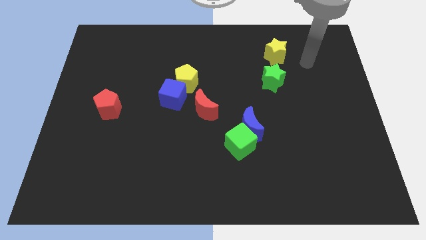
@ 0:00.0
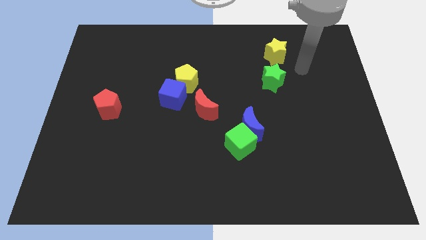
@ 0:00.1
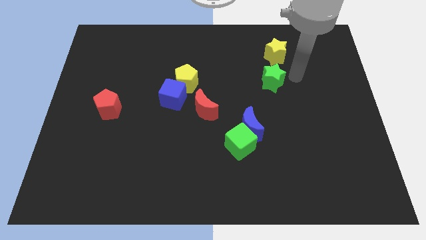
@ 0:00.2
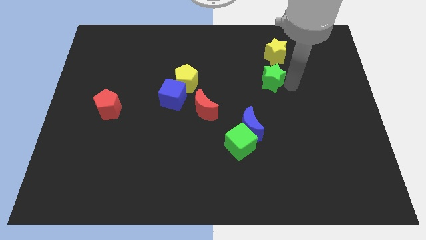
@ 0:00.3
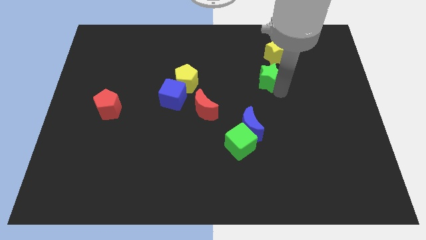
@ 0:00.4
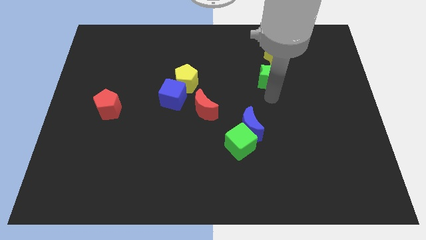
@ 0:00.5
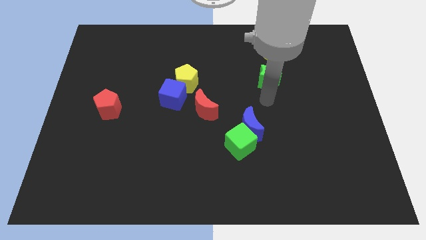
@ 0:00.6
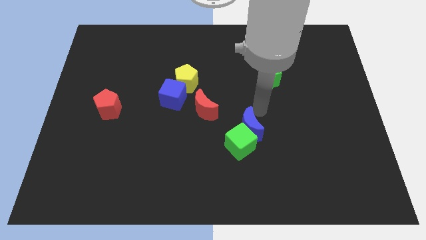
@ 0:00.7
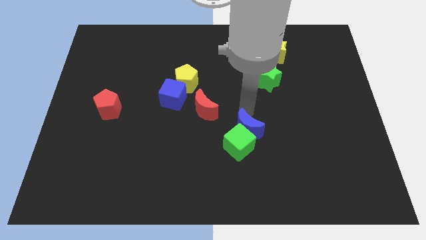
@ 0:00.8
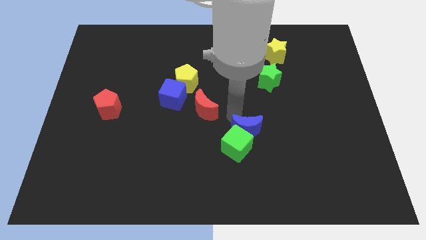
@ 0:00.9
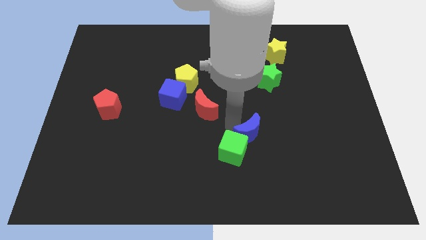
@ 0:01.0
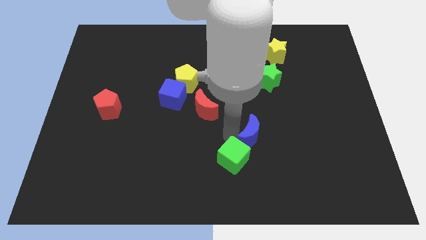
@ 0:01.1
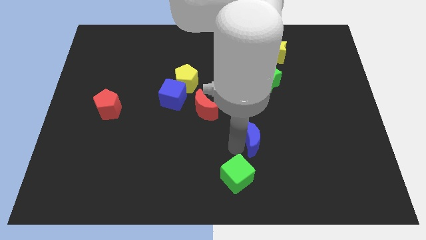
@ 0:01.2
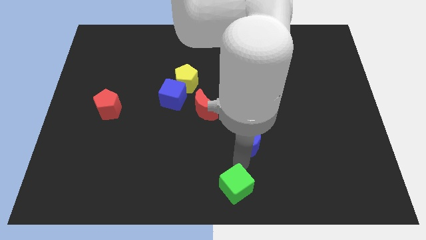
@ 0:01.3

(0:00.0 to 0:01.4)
move the blue moon away from the green cube

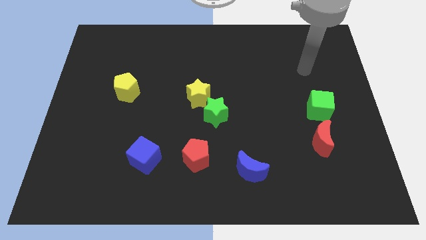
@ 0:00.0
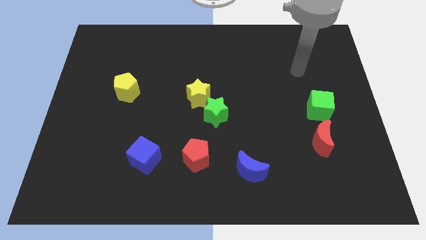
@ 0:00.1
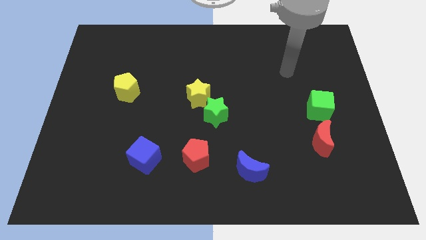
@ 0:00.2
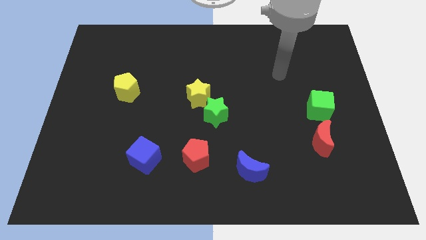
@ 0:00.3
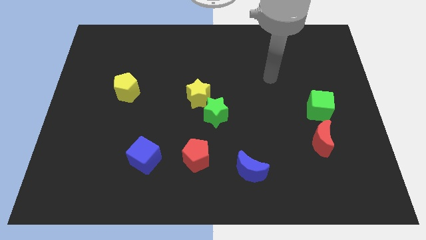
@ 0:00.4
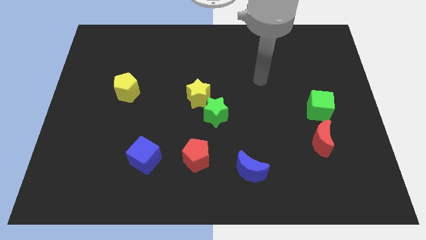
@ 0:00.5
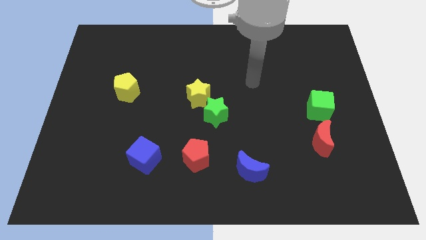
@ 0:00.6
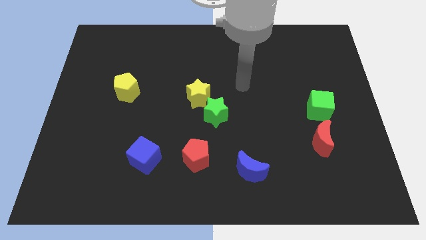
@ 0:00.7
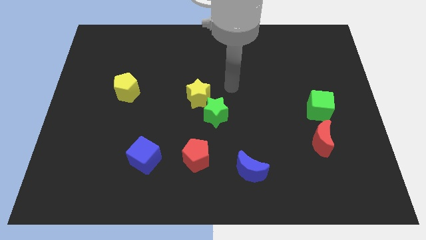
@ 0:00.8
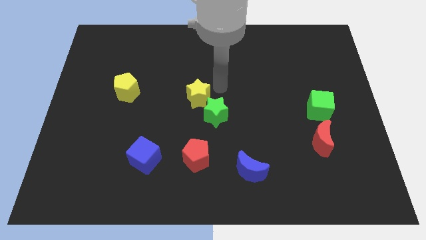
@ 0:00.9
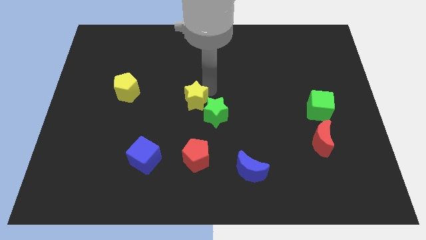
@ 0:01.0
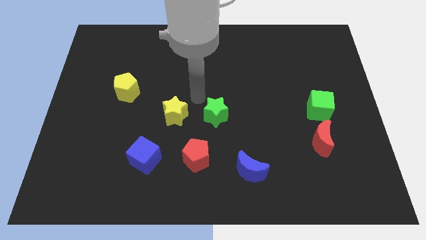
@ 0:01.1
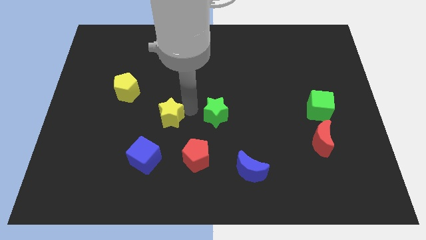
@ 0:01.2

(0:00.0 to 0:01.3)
move the green star away from the yellow star

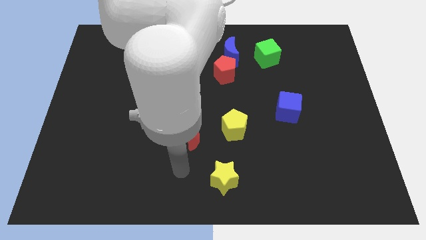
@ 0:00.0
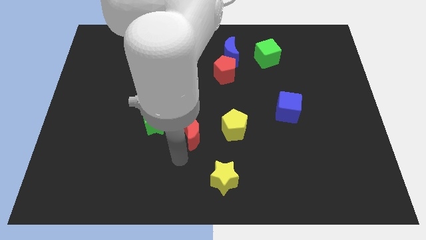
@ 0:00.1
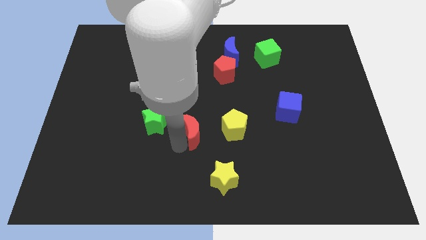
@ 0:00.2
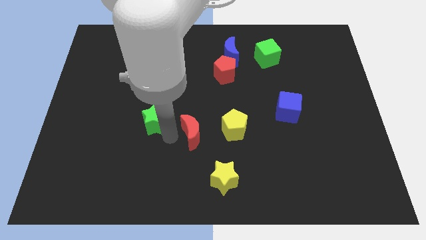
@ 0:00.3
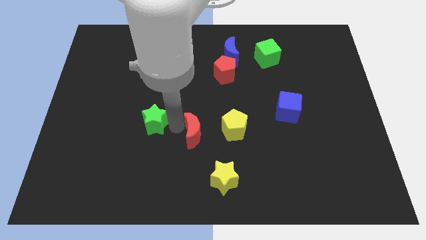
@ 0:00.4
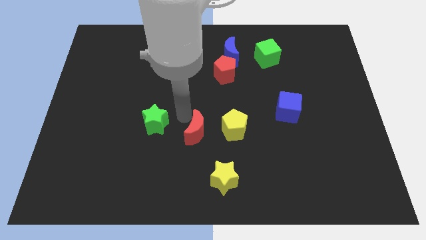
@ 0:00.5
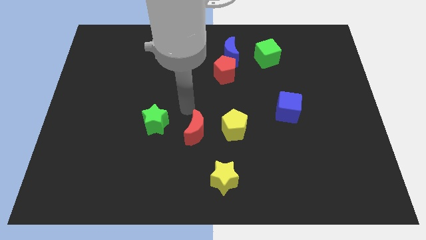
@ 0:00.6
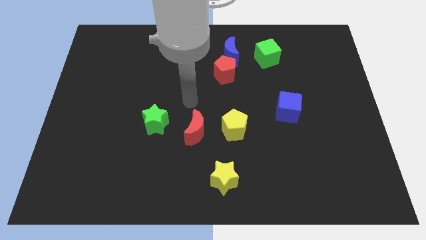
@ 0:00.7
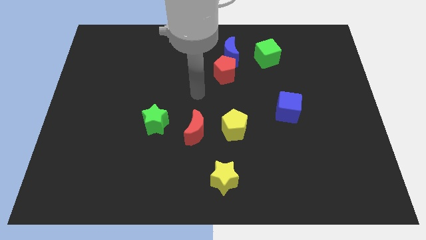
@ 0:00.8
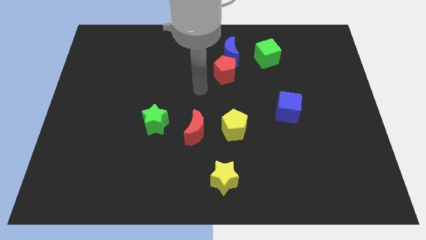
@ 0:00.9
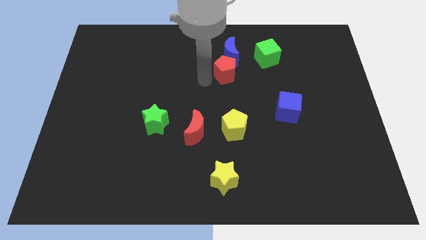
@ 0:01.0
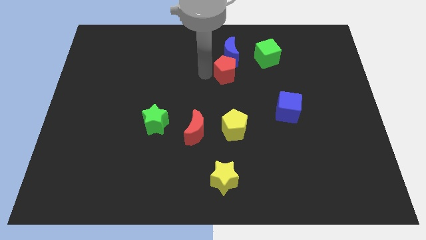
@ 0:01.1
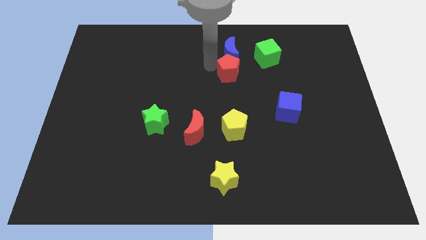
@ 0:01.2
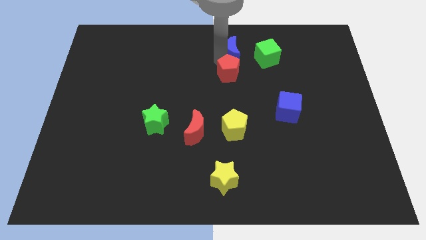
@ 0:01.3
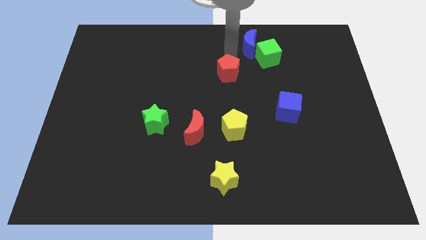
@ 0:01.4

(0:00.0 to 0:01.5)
separate the red pentagon from the blue moon

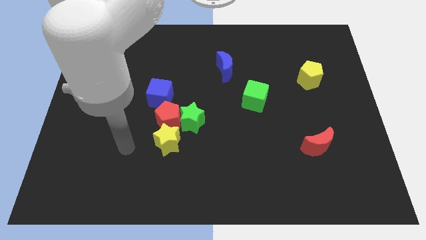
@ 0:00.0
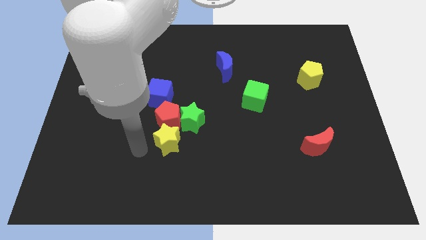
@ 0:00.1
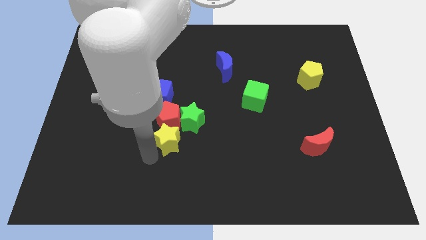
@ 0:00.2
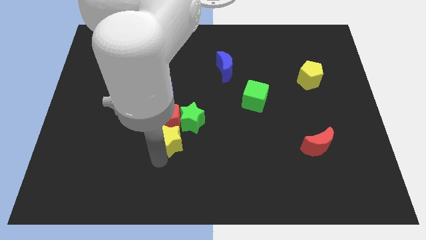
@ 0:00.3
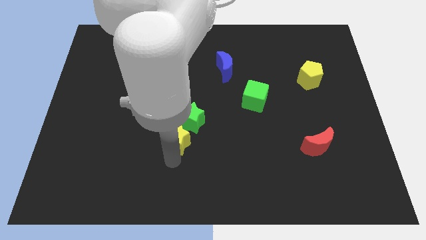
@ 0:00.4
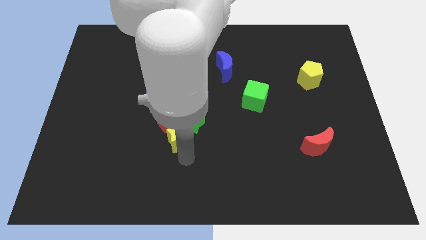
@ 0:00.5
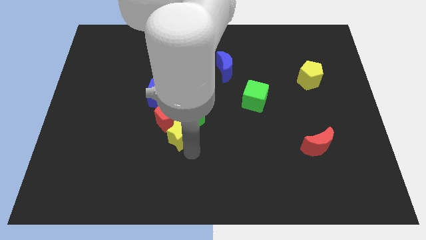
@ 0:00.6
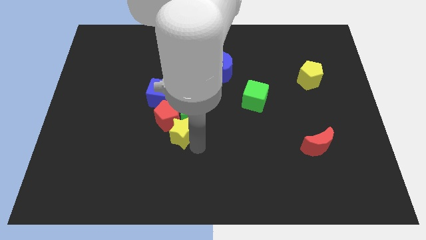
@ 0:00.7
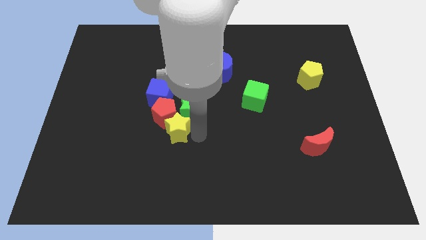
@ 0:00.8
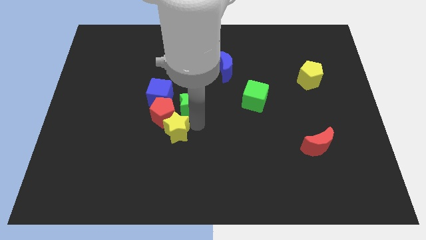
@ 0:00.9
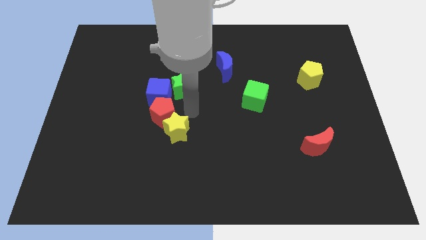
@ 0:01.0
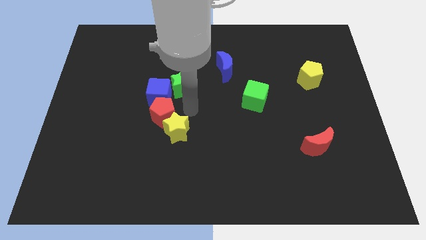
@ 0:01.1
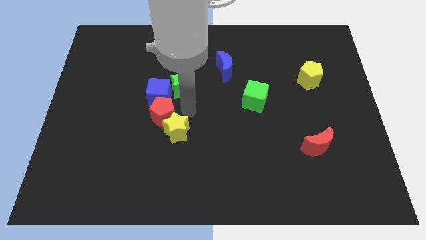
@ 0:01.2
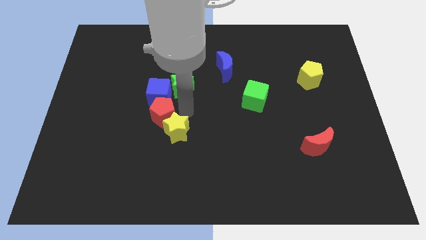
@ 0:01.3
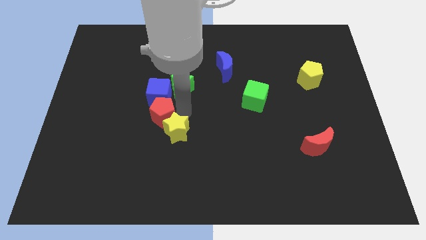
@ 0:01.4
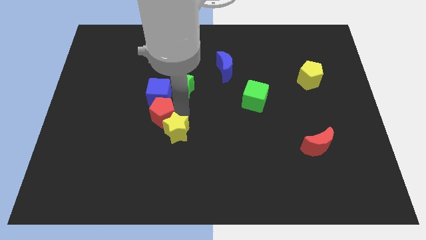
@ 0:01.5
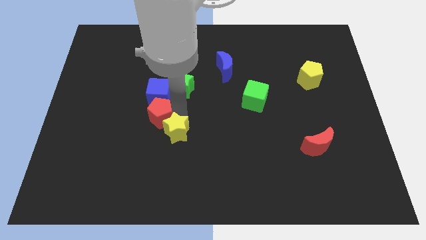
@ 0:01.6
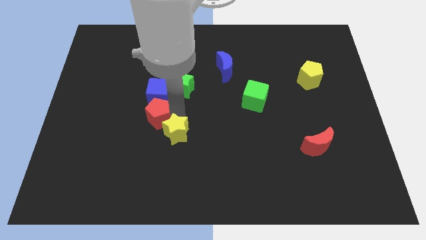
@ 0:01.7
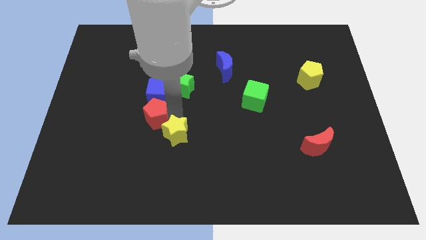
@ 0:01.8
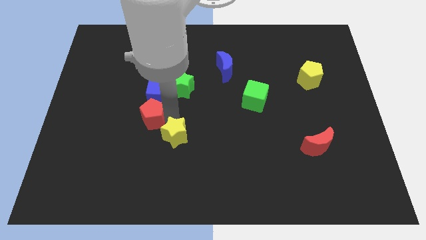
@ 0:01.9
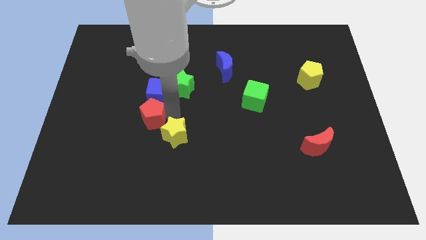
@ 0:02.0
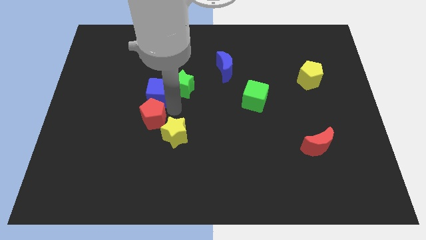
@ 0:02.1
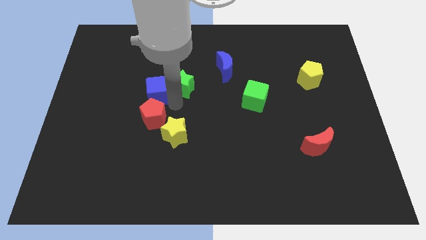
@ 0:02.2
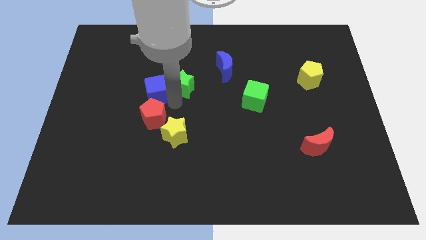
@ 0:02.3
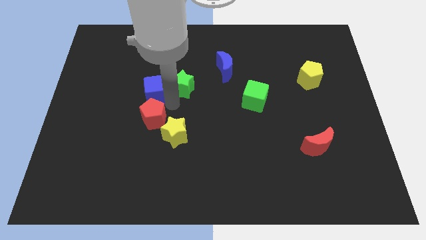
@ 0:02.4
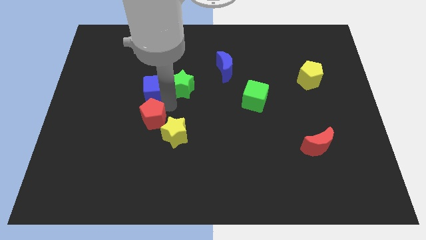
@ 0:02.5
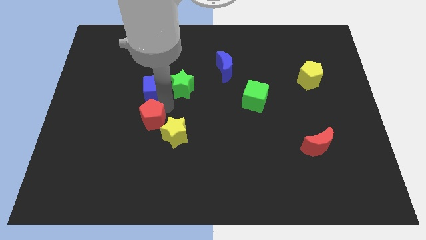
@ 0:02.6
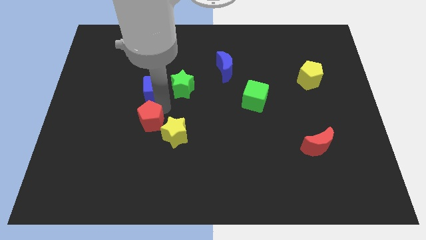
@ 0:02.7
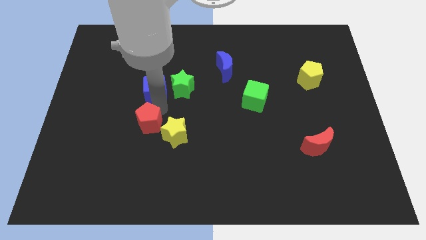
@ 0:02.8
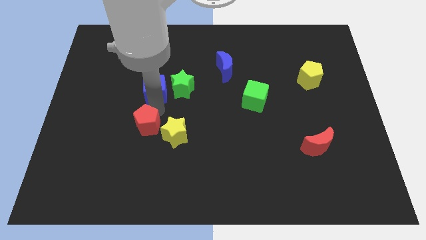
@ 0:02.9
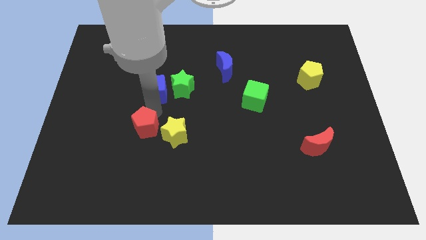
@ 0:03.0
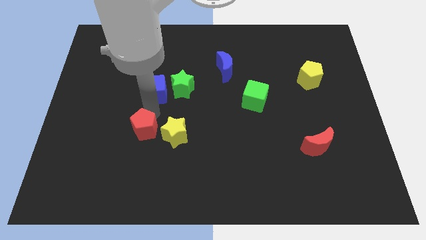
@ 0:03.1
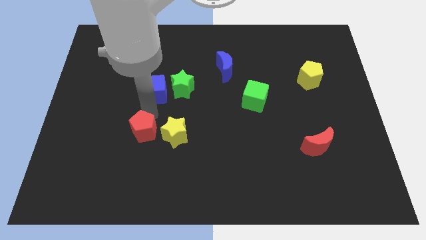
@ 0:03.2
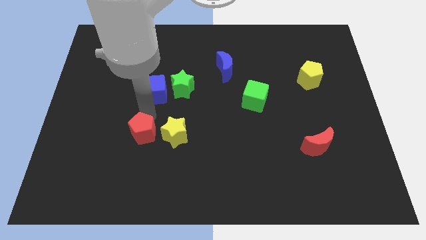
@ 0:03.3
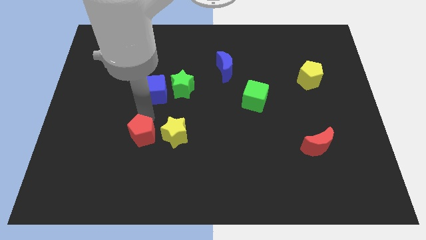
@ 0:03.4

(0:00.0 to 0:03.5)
move the red pentagon away from the clump

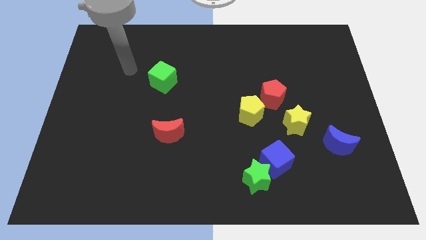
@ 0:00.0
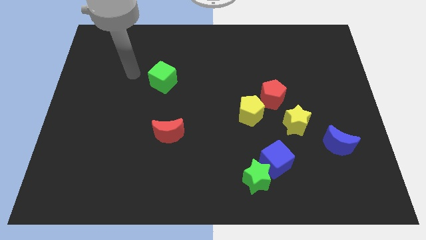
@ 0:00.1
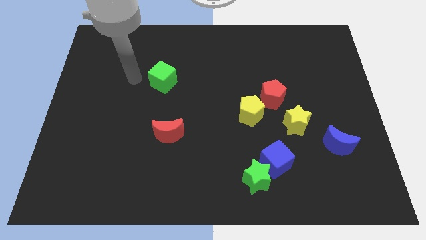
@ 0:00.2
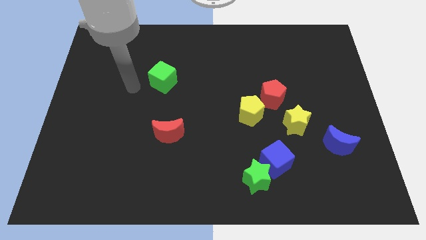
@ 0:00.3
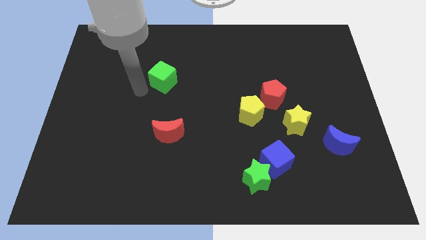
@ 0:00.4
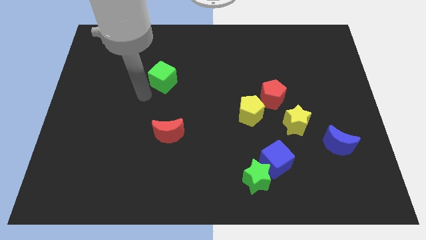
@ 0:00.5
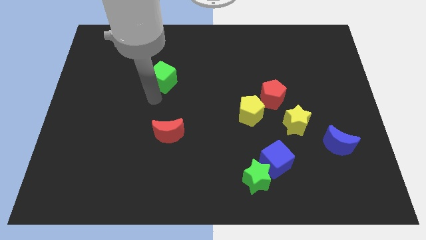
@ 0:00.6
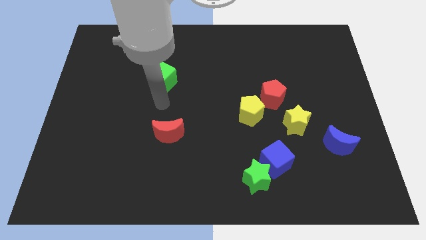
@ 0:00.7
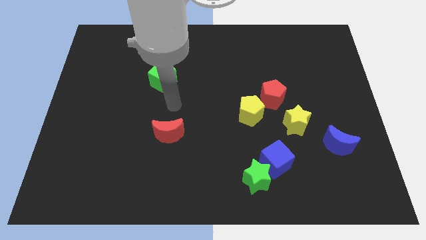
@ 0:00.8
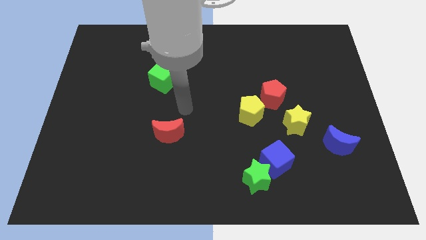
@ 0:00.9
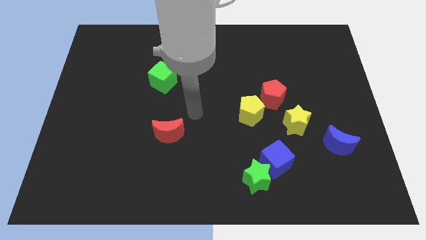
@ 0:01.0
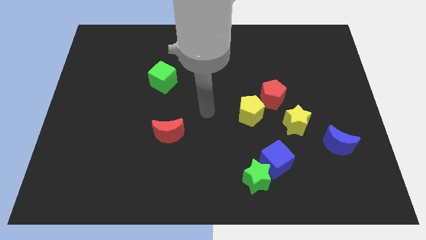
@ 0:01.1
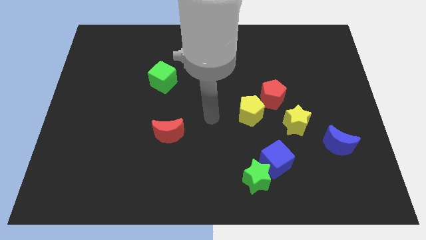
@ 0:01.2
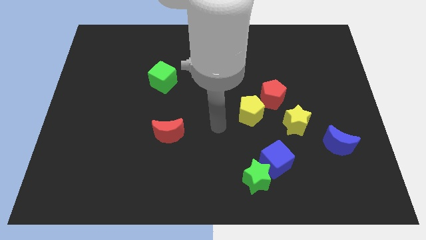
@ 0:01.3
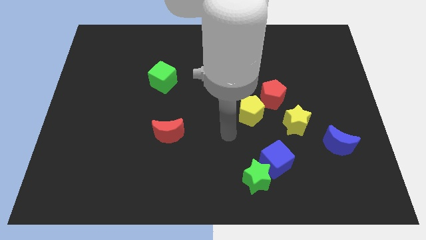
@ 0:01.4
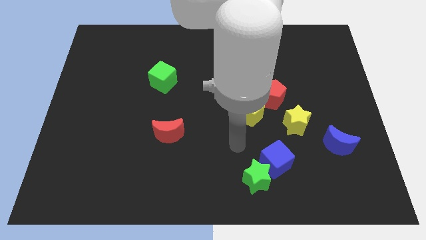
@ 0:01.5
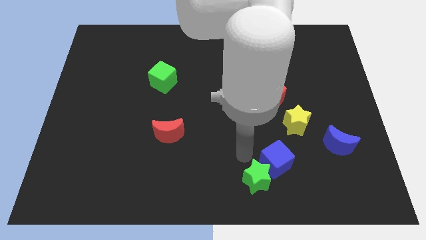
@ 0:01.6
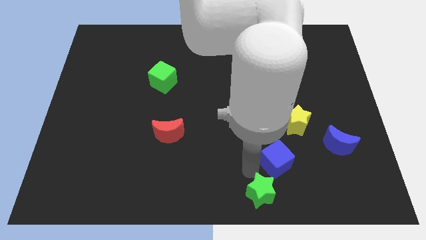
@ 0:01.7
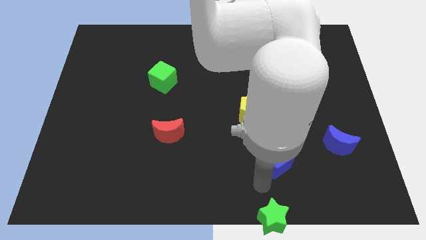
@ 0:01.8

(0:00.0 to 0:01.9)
separate the blue cube from the green star
